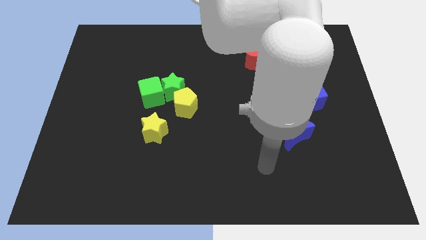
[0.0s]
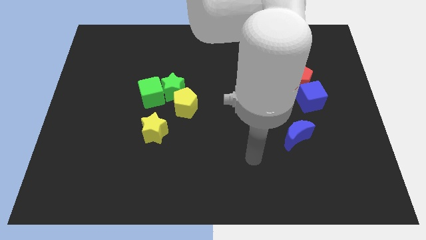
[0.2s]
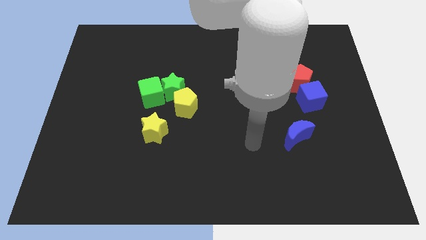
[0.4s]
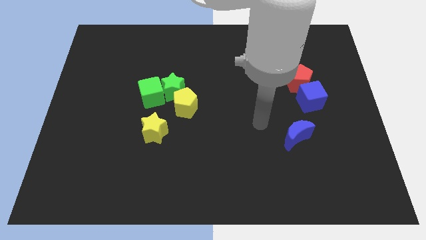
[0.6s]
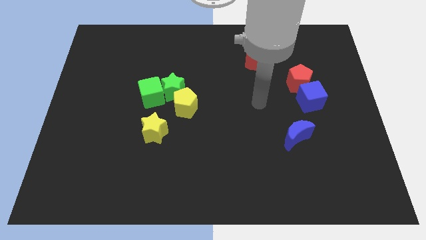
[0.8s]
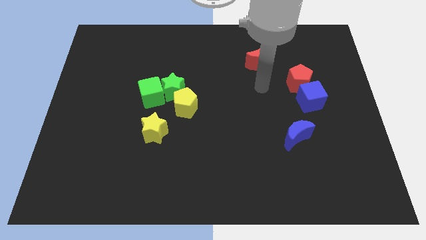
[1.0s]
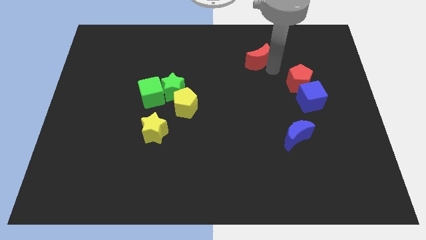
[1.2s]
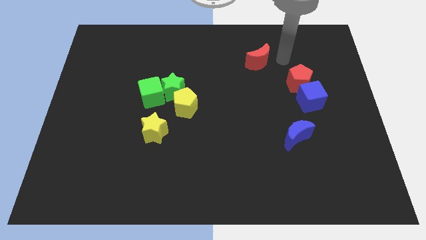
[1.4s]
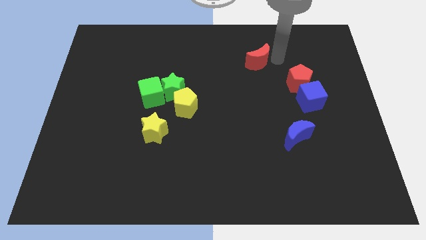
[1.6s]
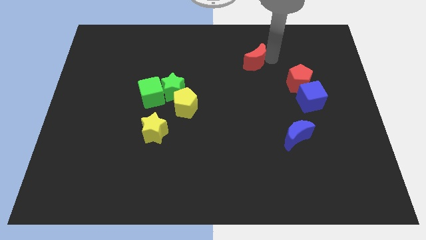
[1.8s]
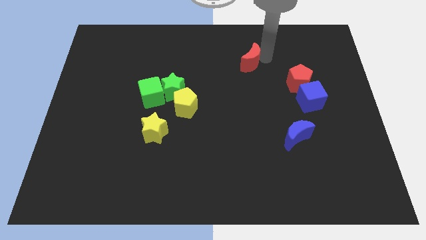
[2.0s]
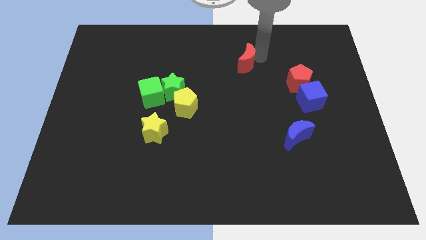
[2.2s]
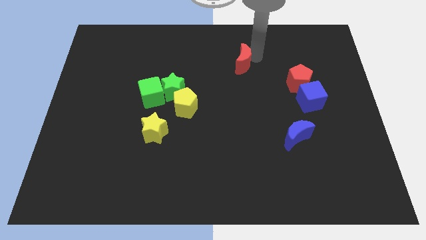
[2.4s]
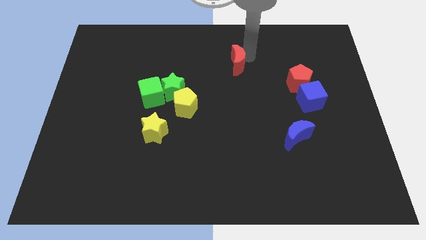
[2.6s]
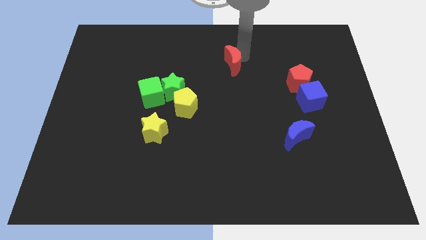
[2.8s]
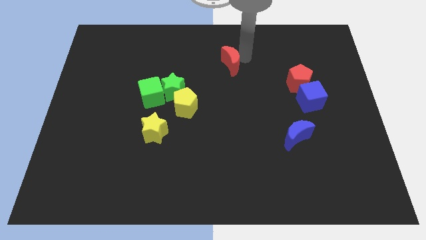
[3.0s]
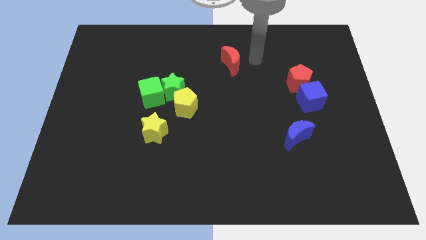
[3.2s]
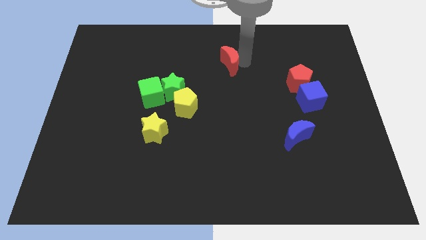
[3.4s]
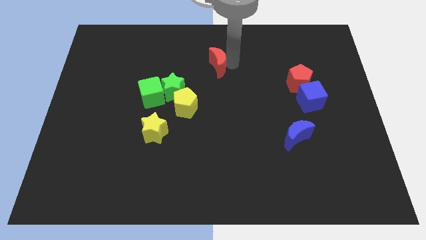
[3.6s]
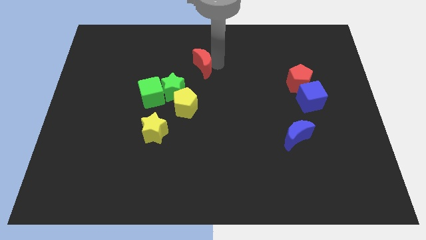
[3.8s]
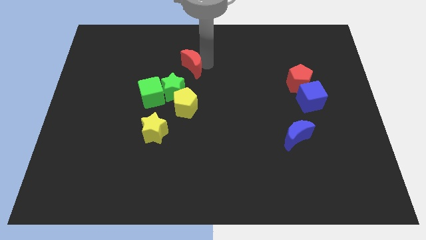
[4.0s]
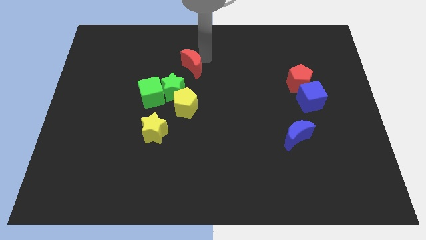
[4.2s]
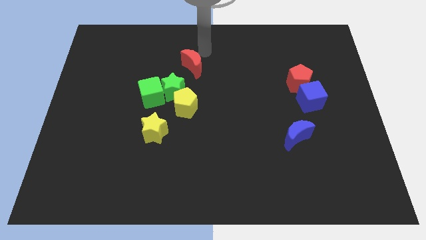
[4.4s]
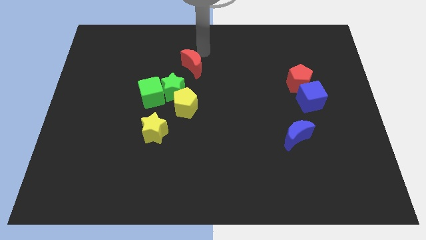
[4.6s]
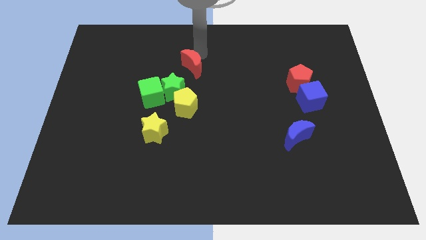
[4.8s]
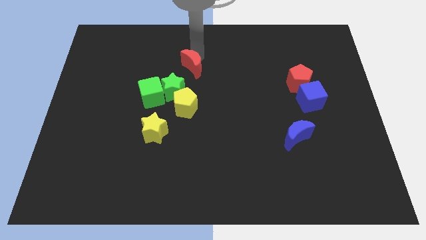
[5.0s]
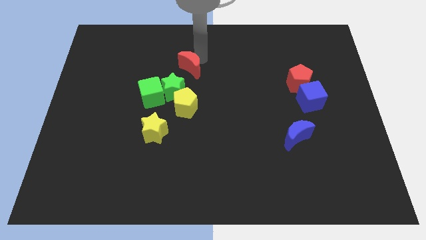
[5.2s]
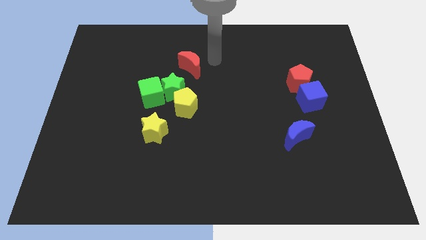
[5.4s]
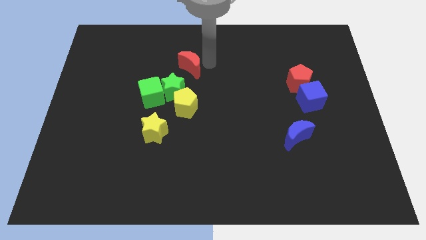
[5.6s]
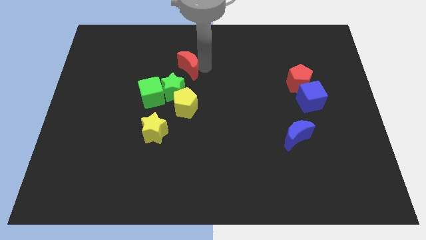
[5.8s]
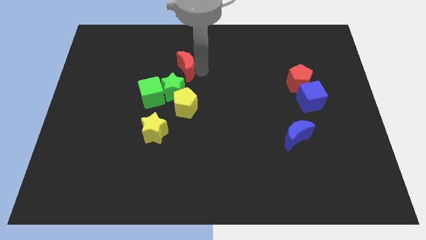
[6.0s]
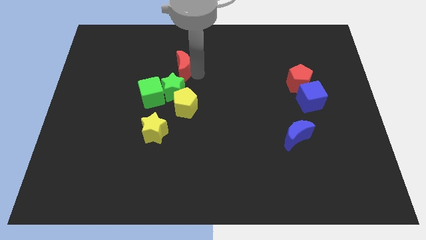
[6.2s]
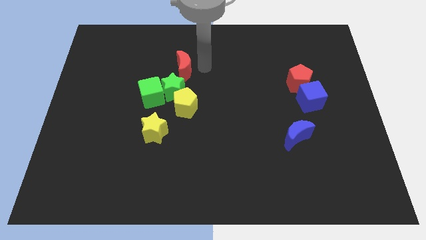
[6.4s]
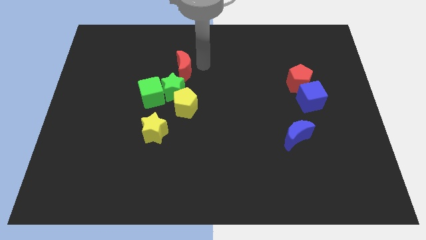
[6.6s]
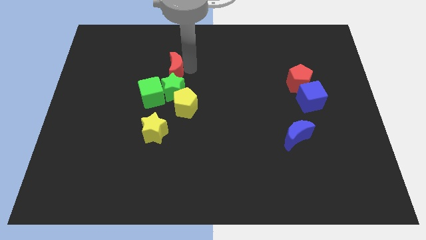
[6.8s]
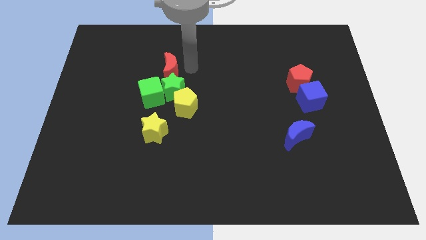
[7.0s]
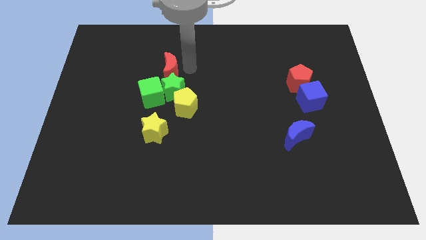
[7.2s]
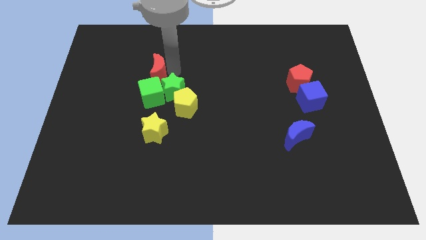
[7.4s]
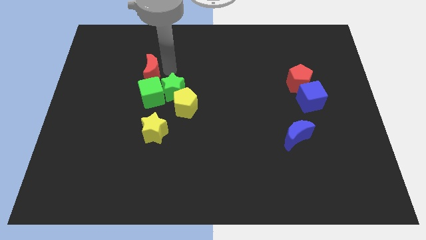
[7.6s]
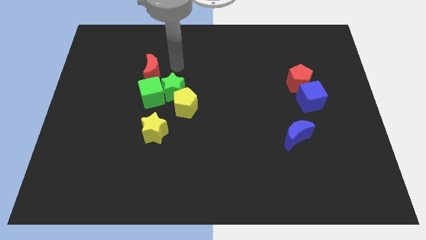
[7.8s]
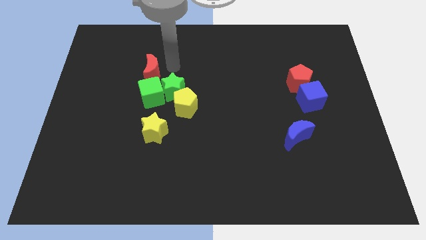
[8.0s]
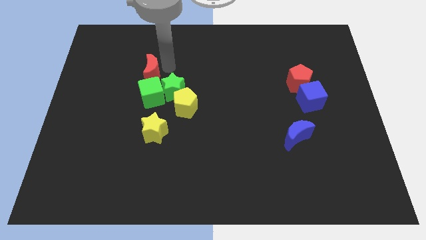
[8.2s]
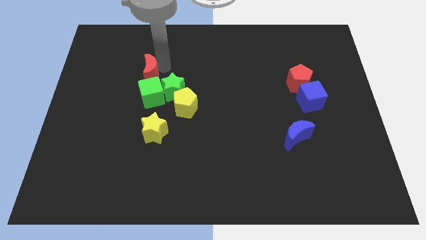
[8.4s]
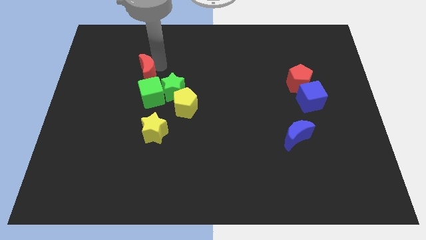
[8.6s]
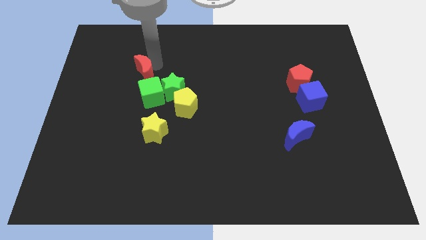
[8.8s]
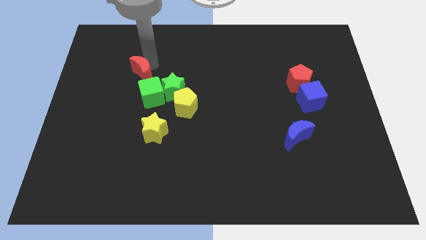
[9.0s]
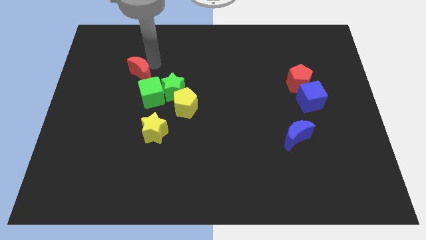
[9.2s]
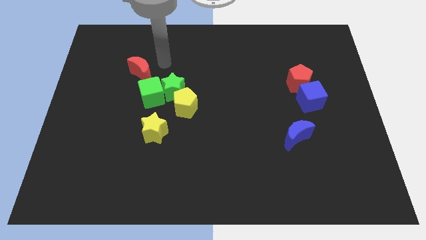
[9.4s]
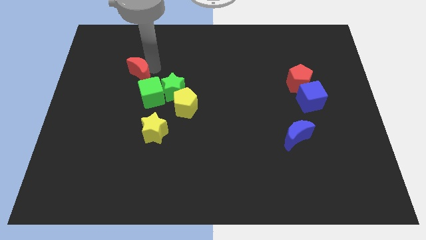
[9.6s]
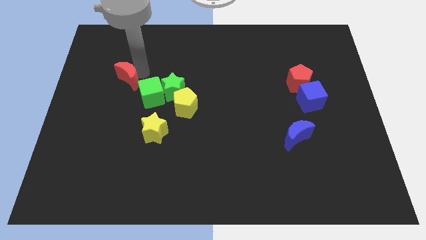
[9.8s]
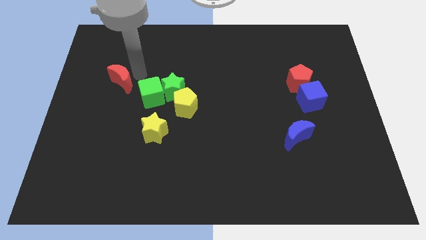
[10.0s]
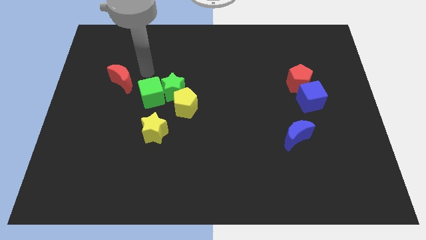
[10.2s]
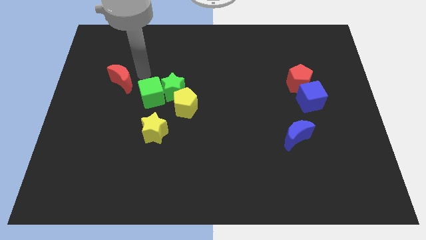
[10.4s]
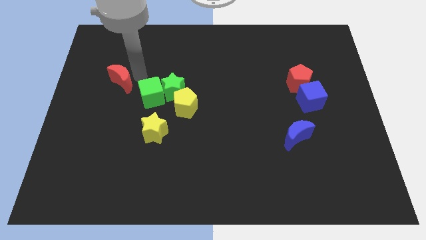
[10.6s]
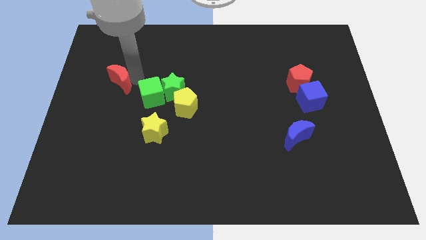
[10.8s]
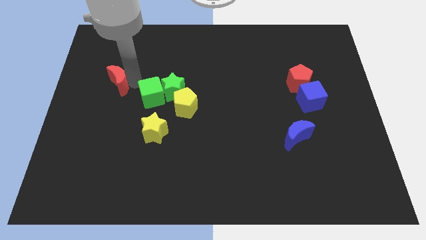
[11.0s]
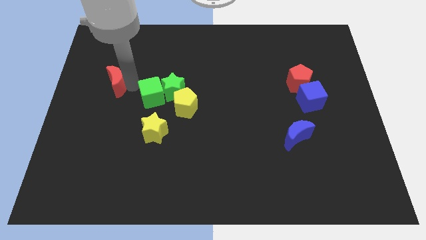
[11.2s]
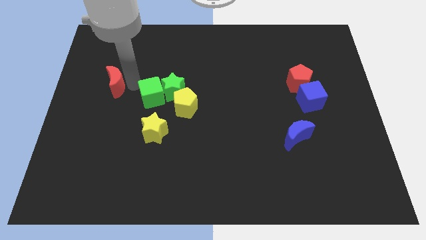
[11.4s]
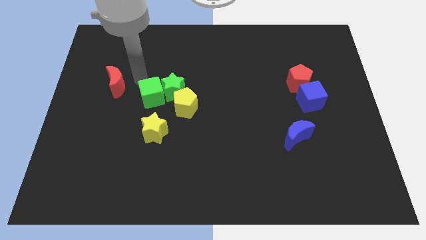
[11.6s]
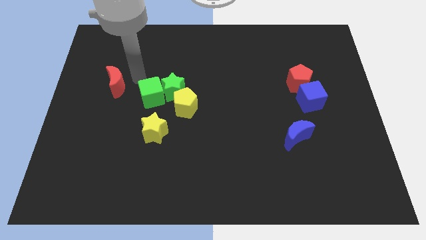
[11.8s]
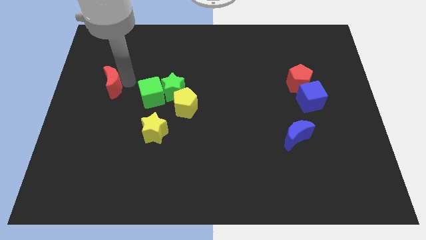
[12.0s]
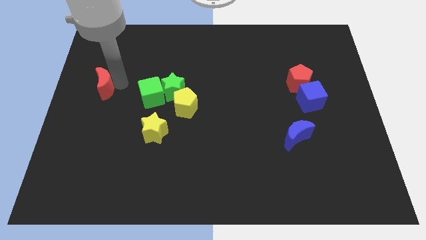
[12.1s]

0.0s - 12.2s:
slide the red moon to the center left

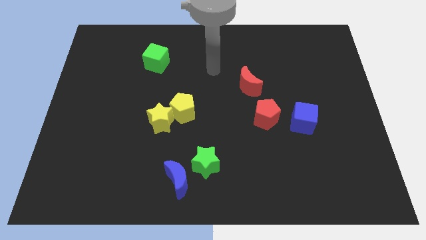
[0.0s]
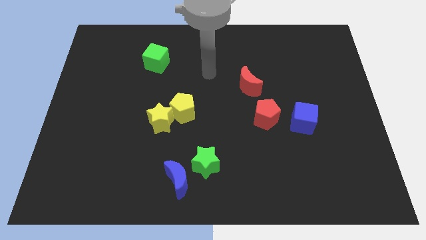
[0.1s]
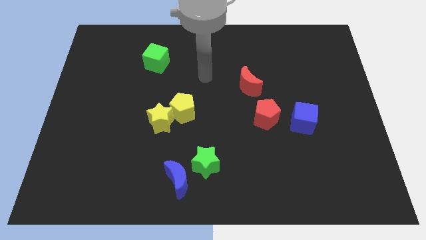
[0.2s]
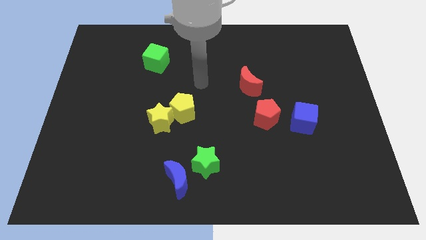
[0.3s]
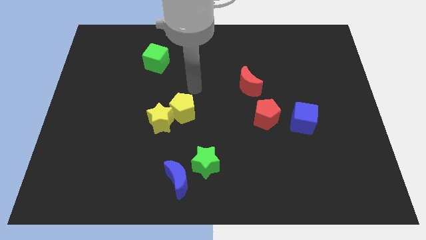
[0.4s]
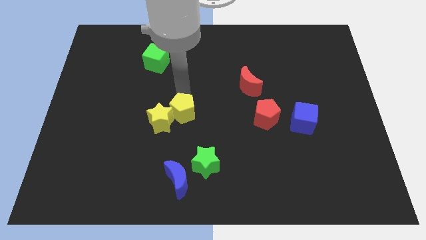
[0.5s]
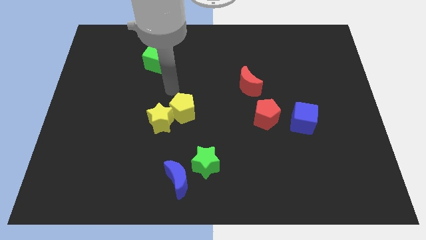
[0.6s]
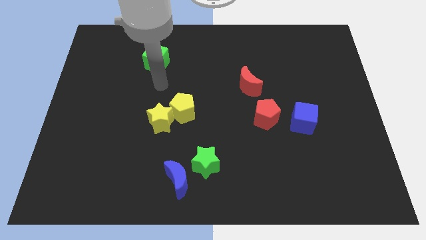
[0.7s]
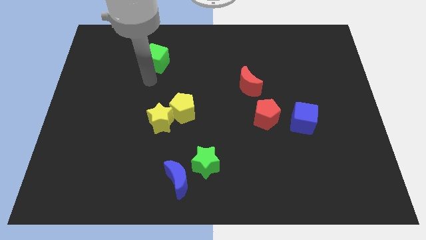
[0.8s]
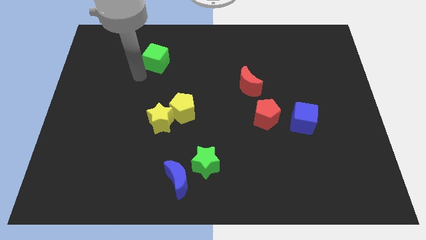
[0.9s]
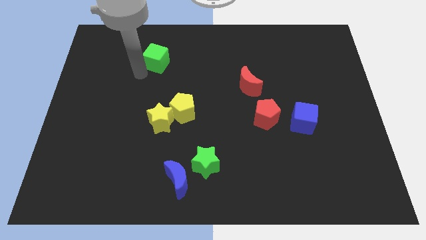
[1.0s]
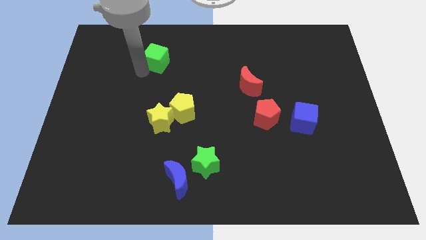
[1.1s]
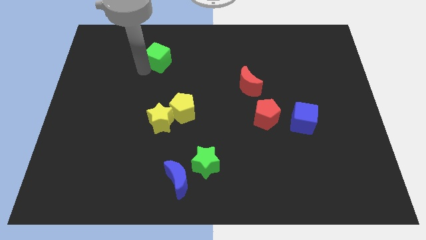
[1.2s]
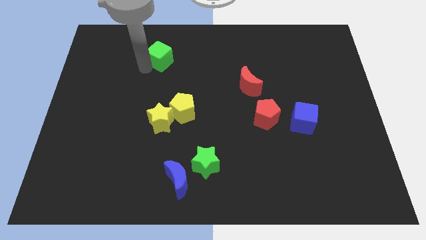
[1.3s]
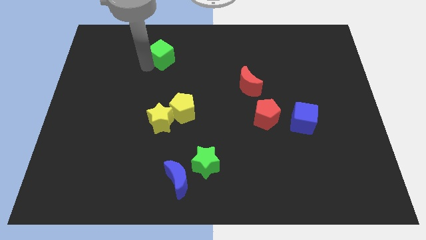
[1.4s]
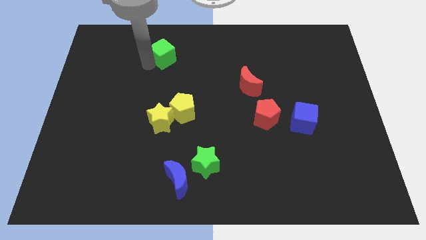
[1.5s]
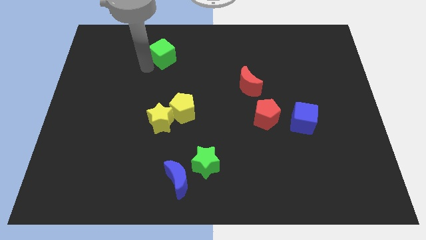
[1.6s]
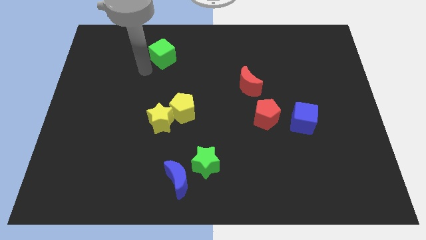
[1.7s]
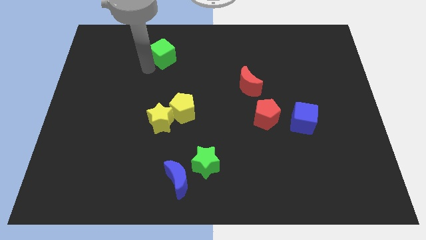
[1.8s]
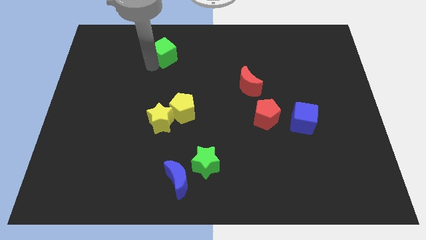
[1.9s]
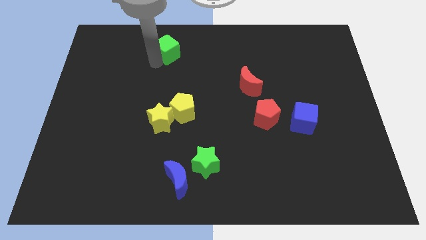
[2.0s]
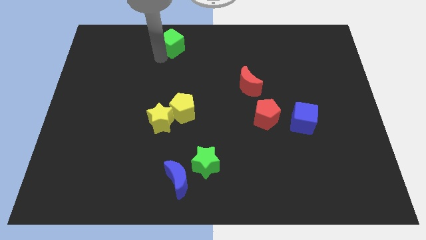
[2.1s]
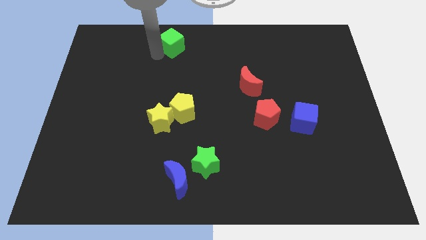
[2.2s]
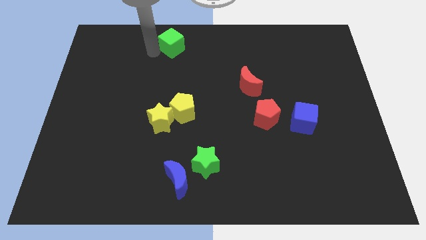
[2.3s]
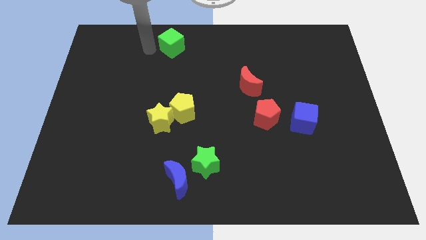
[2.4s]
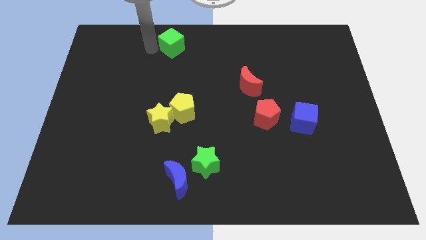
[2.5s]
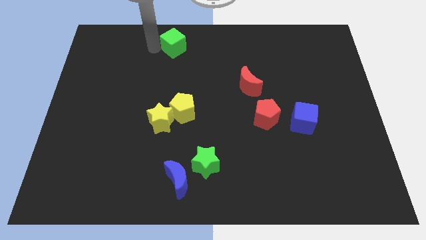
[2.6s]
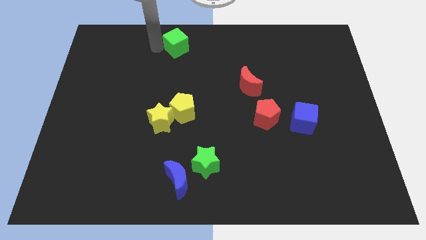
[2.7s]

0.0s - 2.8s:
move the green cube to the top
